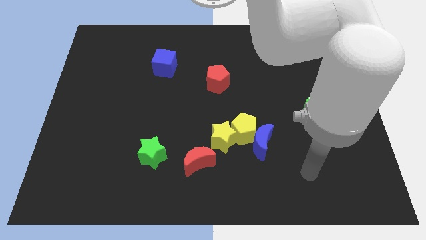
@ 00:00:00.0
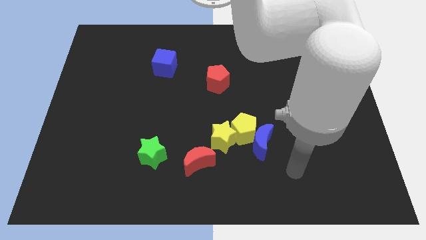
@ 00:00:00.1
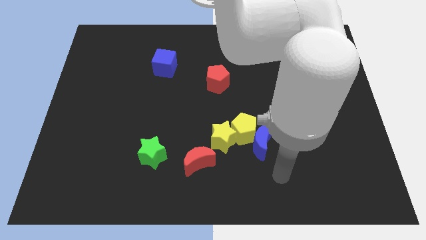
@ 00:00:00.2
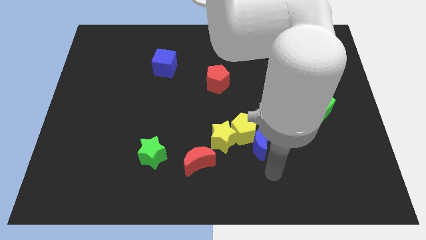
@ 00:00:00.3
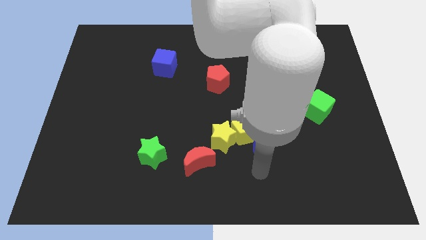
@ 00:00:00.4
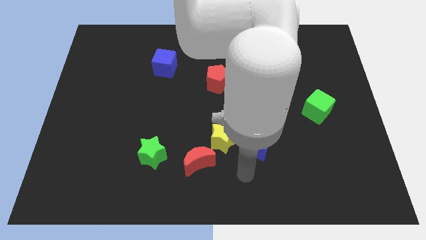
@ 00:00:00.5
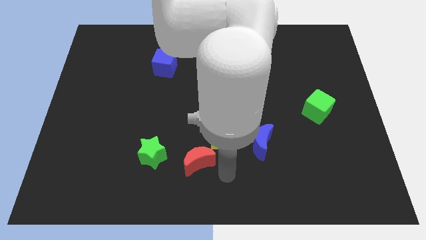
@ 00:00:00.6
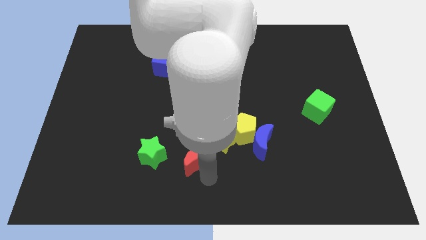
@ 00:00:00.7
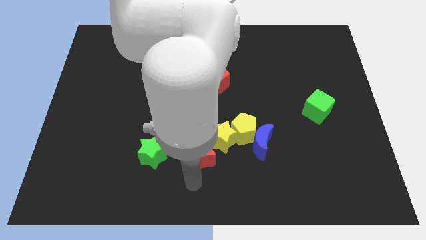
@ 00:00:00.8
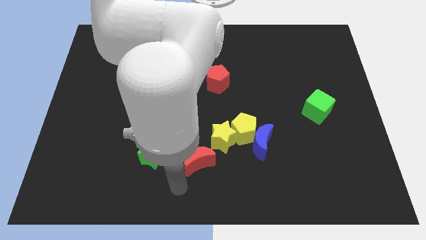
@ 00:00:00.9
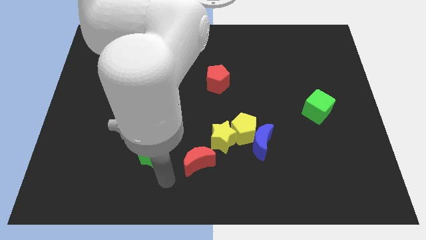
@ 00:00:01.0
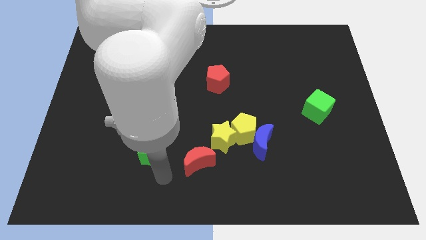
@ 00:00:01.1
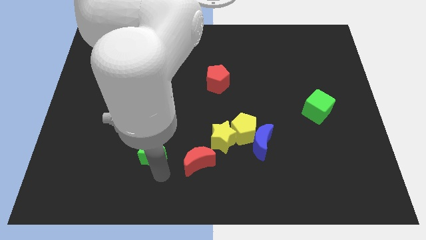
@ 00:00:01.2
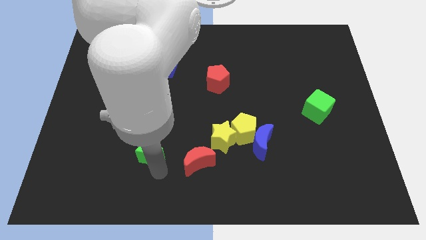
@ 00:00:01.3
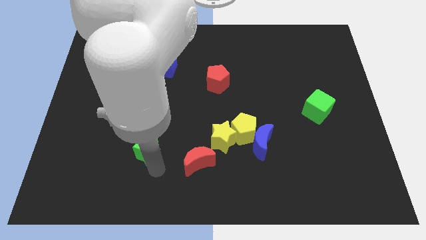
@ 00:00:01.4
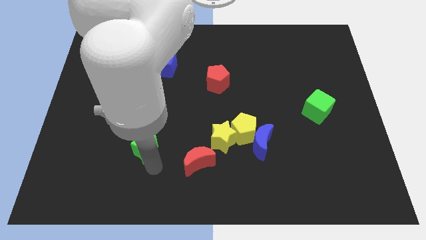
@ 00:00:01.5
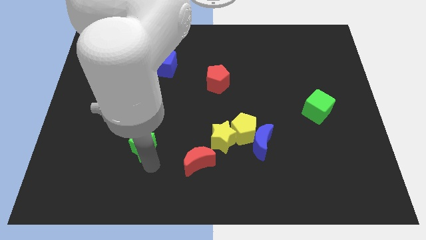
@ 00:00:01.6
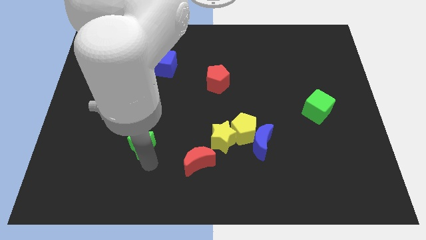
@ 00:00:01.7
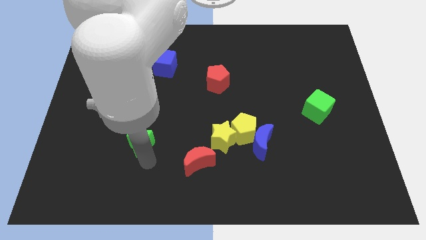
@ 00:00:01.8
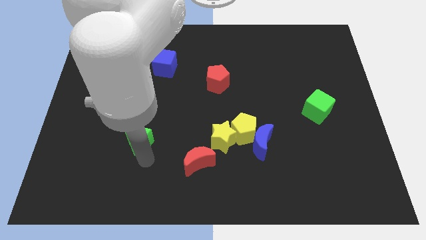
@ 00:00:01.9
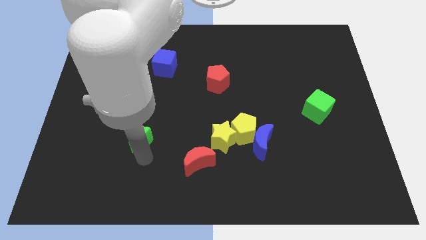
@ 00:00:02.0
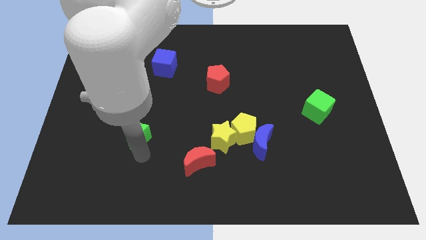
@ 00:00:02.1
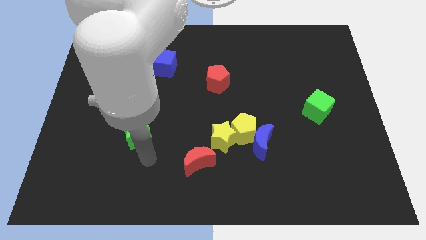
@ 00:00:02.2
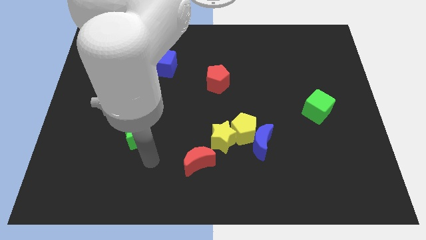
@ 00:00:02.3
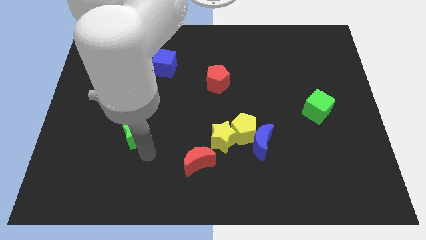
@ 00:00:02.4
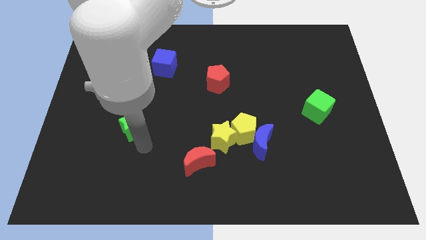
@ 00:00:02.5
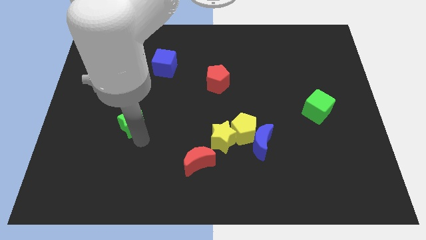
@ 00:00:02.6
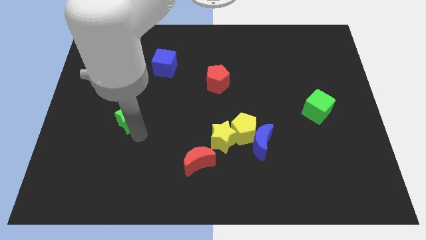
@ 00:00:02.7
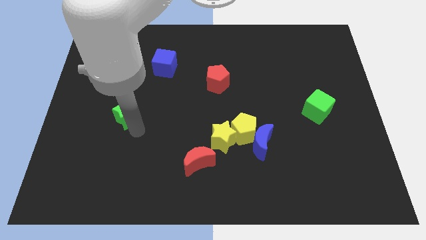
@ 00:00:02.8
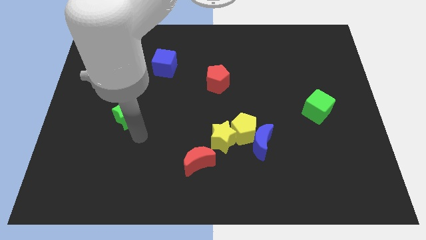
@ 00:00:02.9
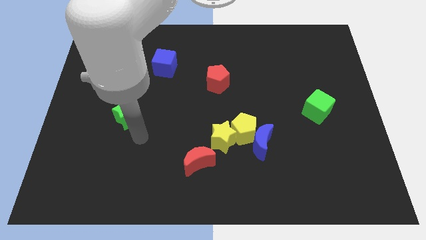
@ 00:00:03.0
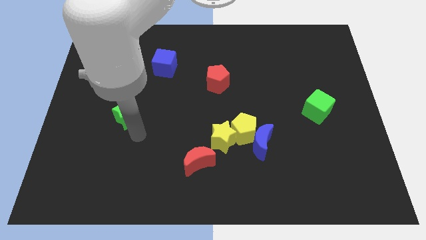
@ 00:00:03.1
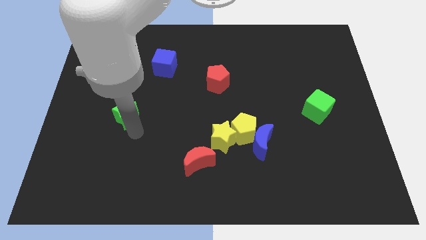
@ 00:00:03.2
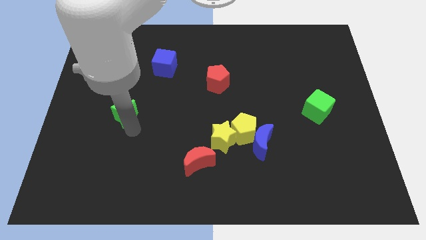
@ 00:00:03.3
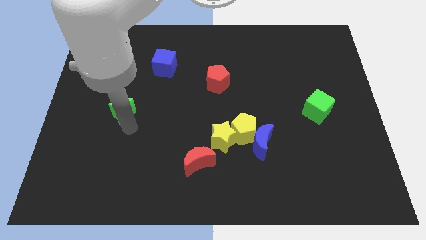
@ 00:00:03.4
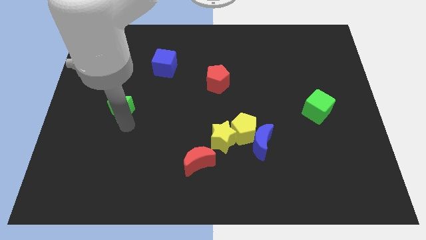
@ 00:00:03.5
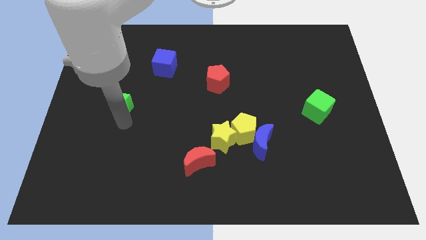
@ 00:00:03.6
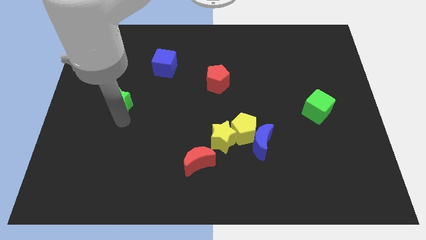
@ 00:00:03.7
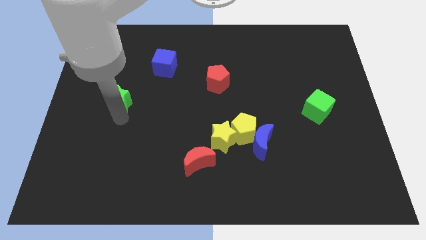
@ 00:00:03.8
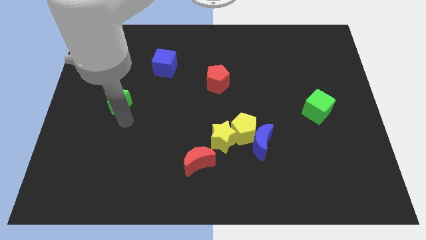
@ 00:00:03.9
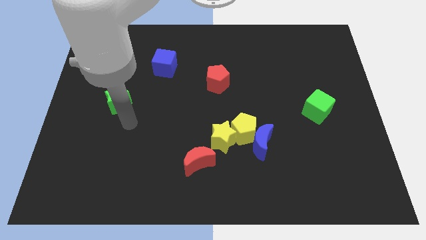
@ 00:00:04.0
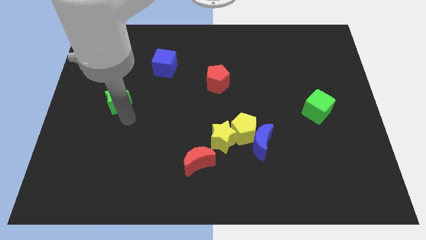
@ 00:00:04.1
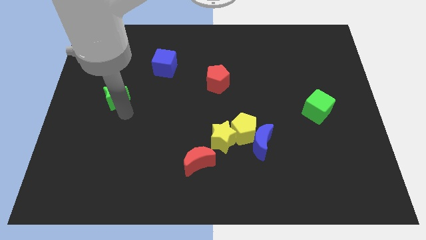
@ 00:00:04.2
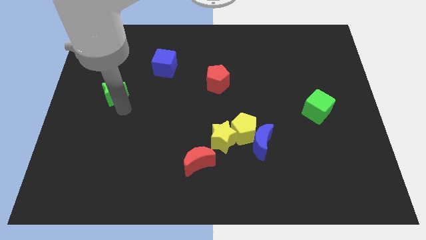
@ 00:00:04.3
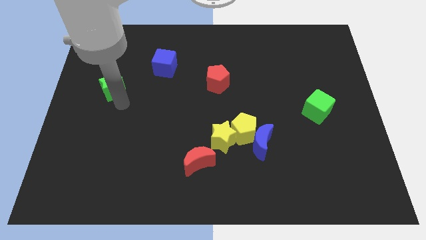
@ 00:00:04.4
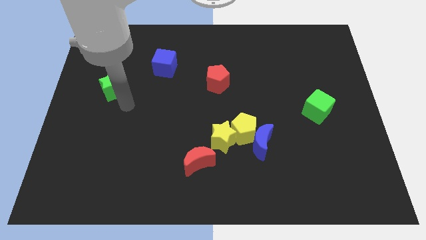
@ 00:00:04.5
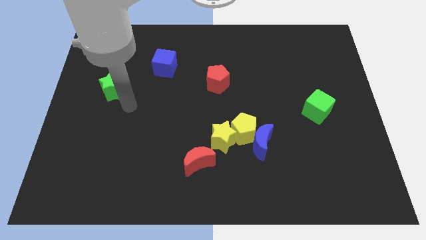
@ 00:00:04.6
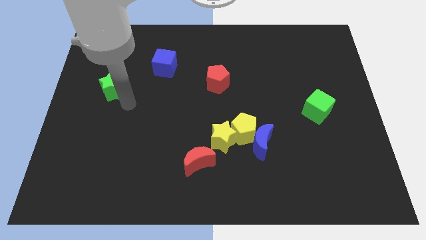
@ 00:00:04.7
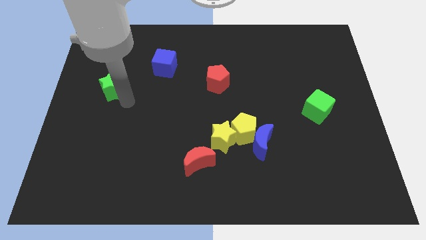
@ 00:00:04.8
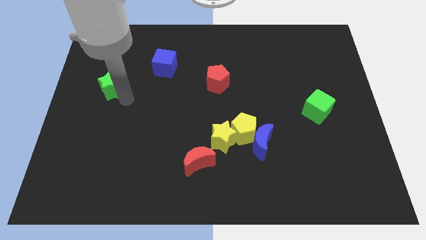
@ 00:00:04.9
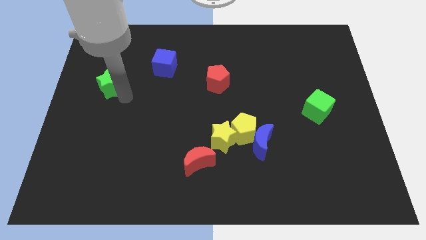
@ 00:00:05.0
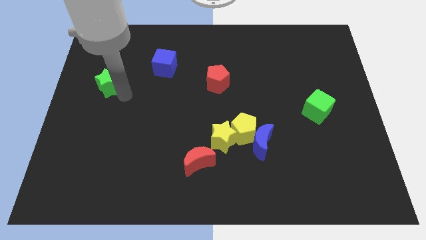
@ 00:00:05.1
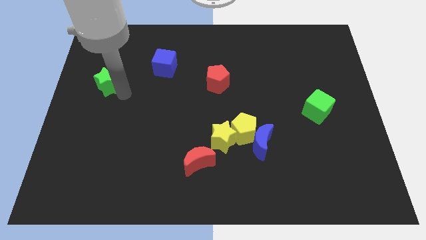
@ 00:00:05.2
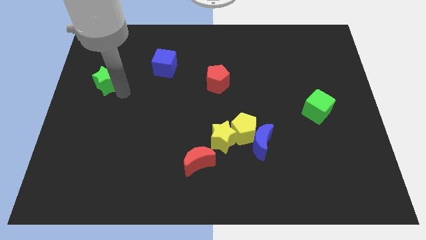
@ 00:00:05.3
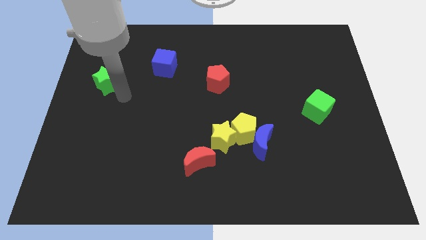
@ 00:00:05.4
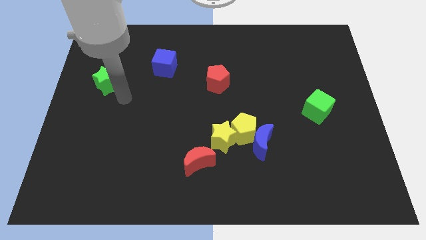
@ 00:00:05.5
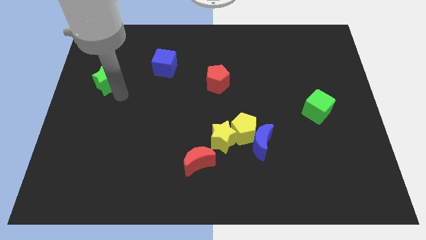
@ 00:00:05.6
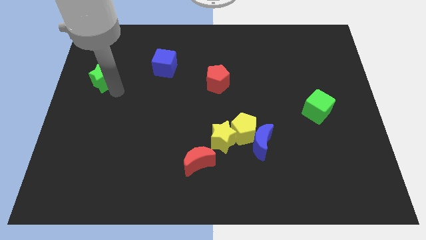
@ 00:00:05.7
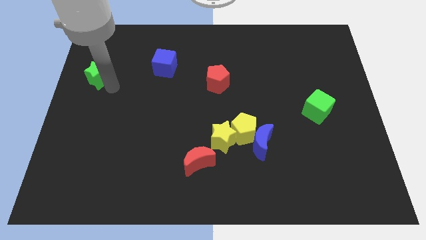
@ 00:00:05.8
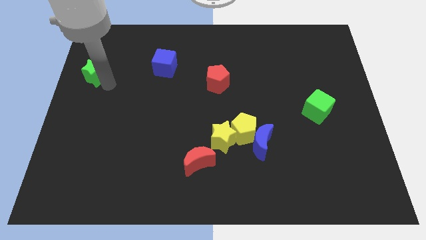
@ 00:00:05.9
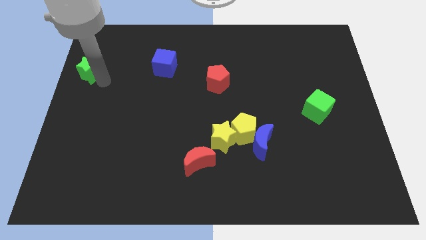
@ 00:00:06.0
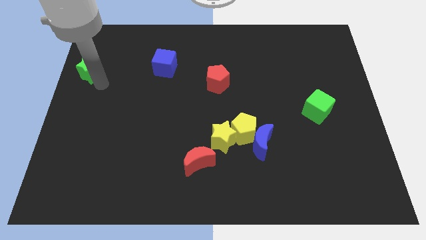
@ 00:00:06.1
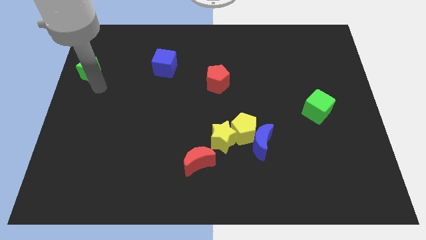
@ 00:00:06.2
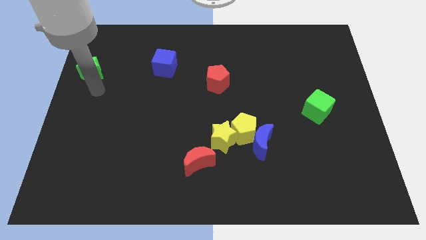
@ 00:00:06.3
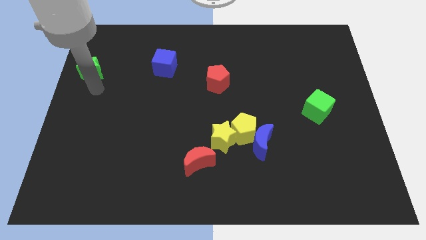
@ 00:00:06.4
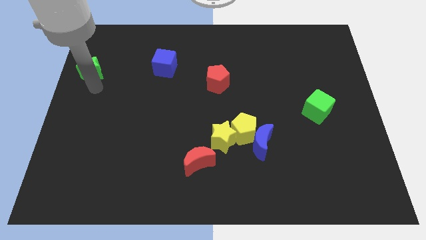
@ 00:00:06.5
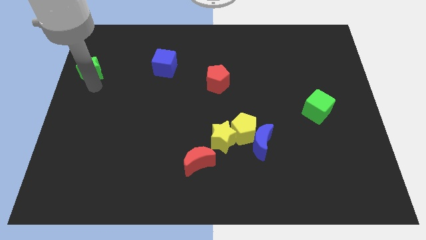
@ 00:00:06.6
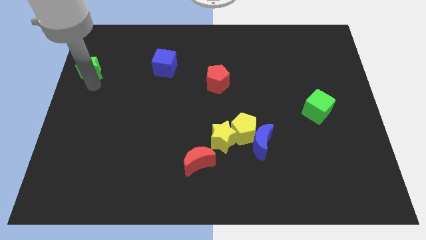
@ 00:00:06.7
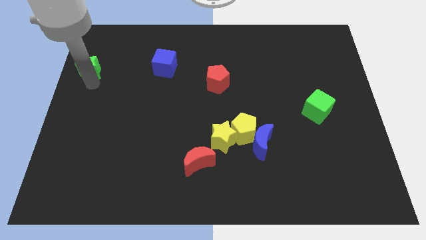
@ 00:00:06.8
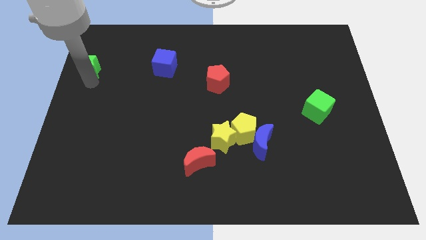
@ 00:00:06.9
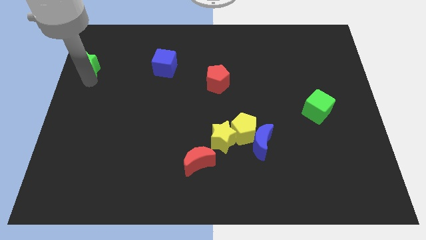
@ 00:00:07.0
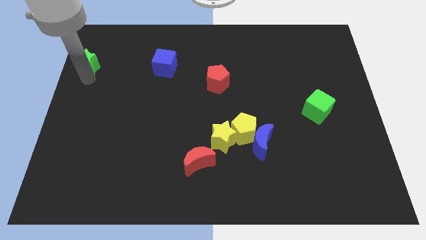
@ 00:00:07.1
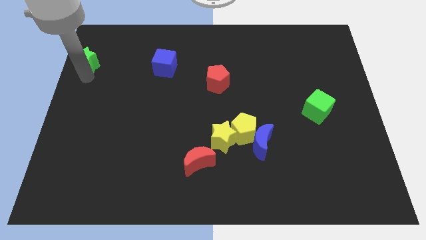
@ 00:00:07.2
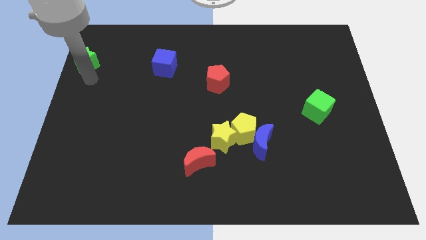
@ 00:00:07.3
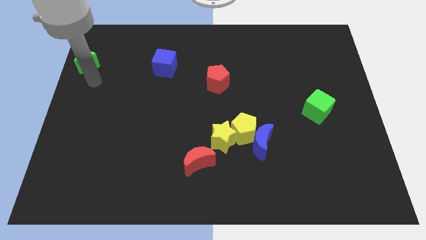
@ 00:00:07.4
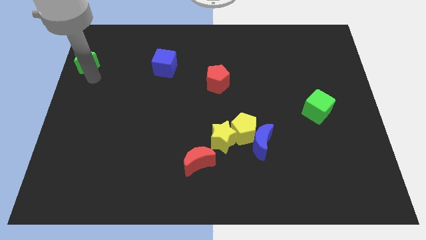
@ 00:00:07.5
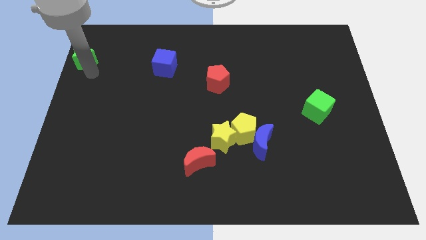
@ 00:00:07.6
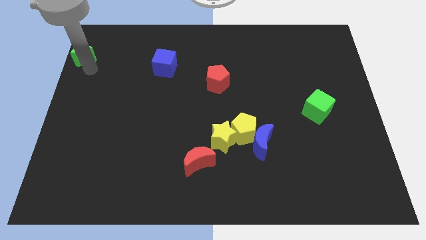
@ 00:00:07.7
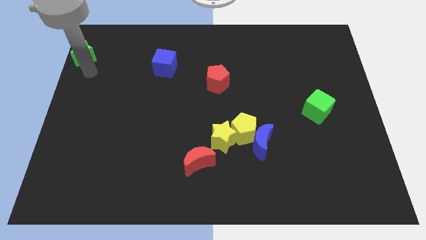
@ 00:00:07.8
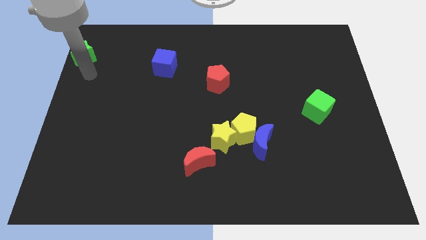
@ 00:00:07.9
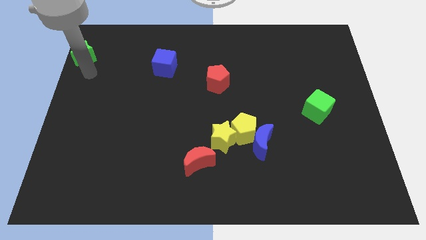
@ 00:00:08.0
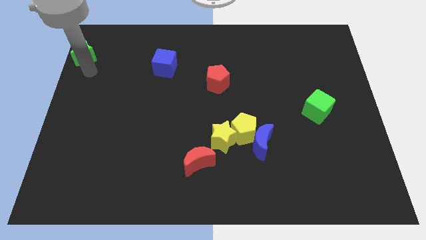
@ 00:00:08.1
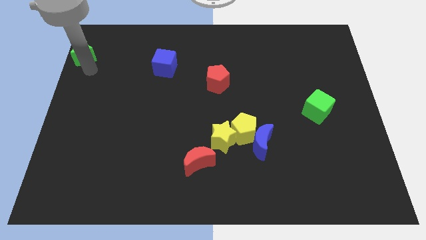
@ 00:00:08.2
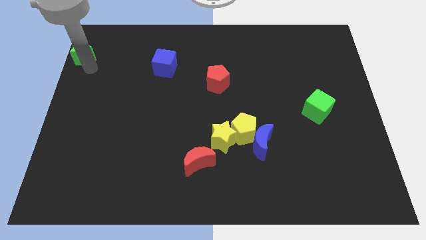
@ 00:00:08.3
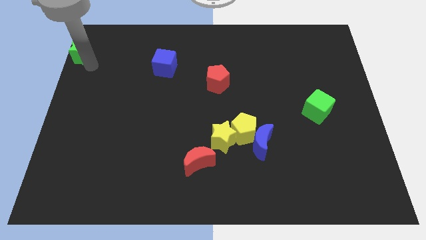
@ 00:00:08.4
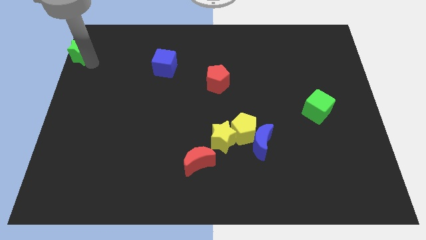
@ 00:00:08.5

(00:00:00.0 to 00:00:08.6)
push the green star to the top left
